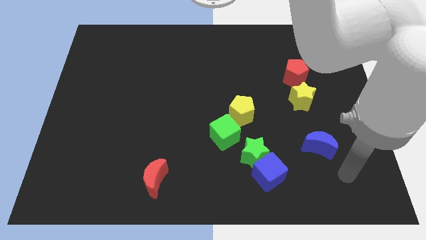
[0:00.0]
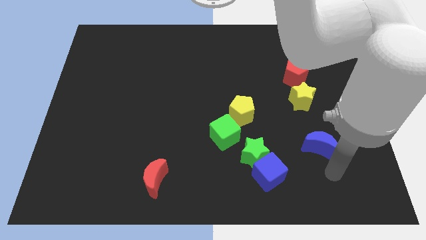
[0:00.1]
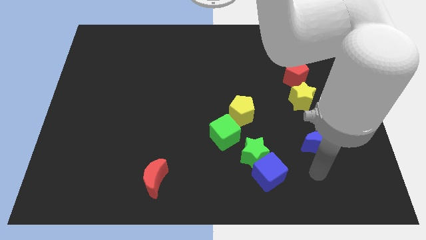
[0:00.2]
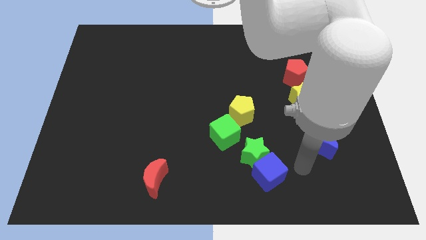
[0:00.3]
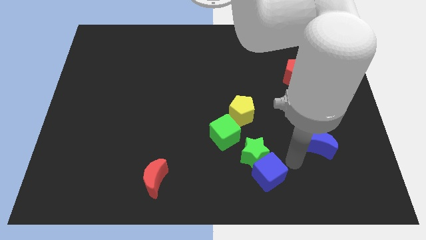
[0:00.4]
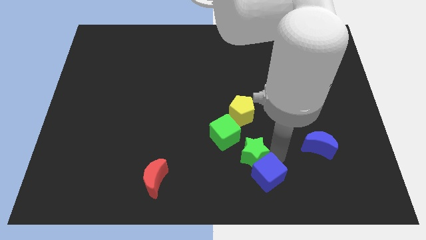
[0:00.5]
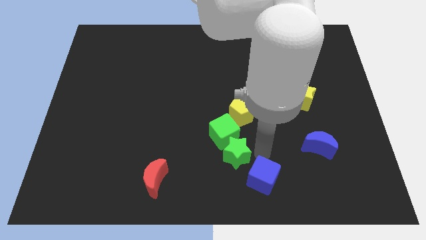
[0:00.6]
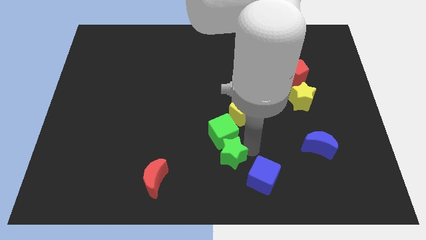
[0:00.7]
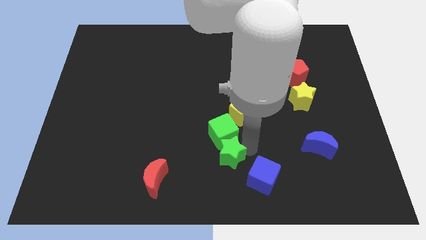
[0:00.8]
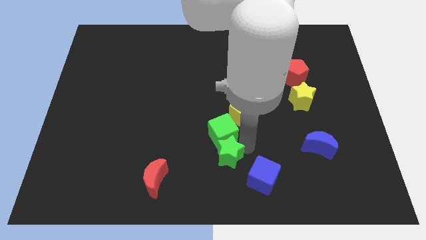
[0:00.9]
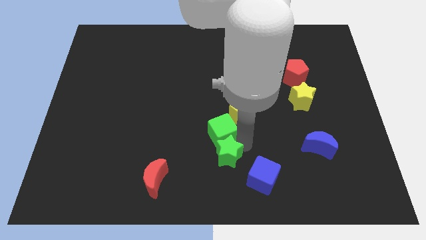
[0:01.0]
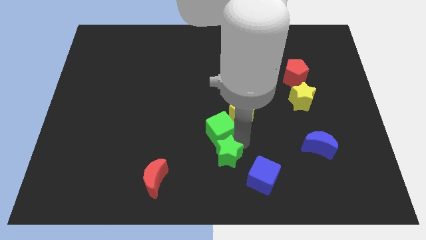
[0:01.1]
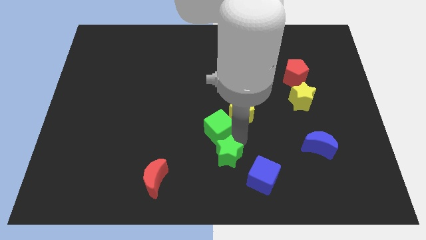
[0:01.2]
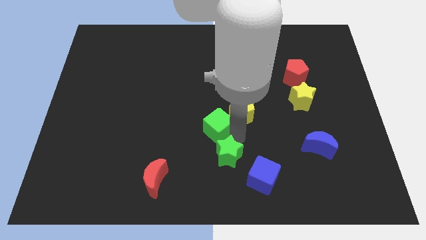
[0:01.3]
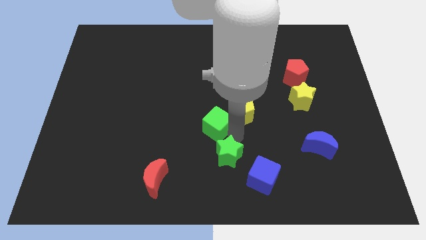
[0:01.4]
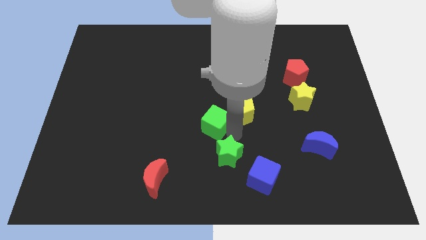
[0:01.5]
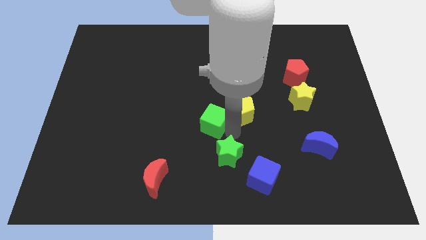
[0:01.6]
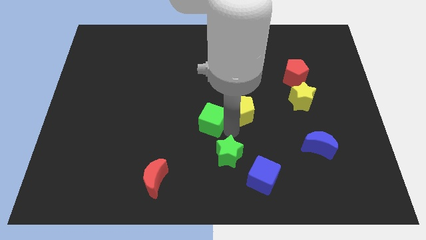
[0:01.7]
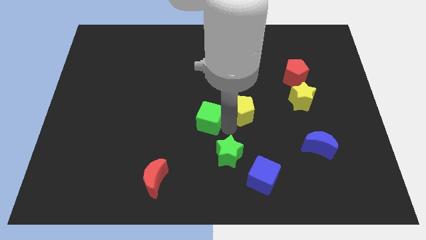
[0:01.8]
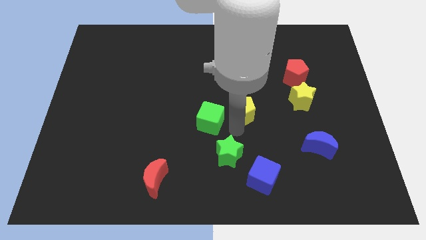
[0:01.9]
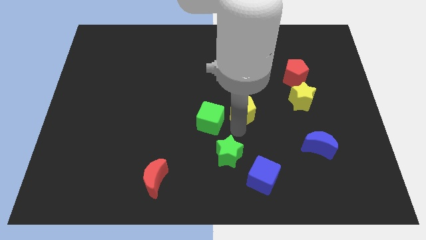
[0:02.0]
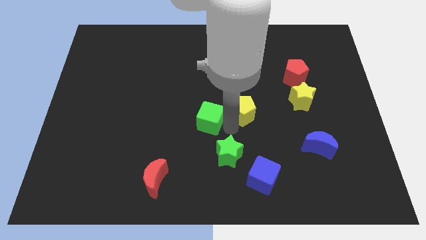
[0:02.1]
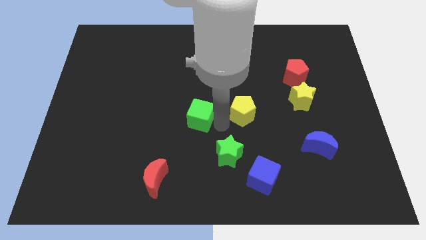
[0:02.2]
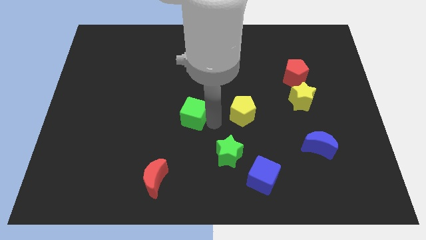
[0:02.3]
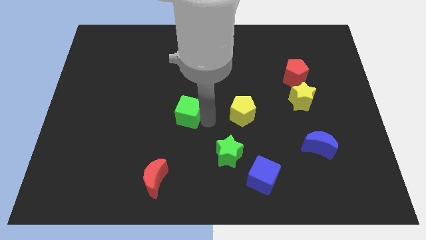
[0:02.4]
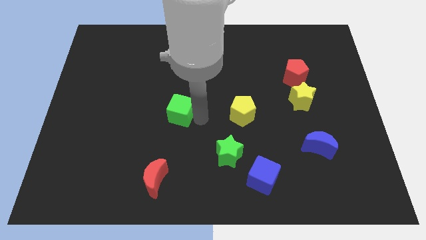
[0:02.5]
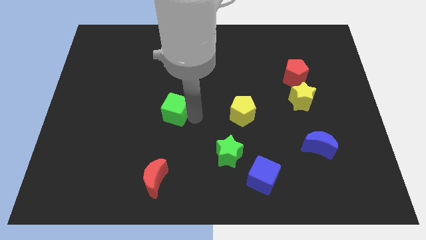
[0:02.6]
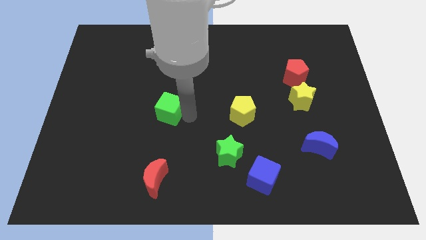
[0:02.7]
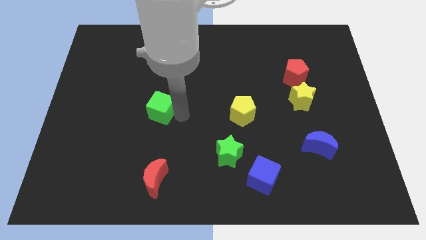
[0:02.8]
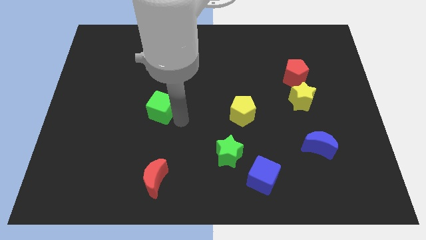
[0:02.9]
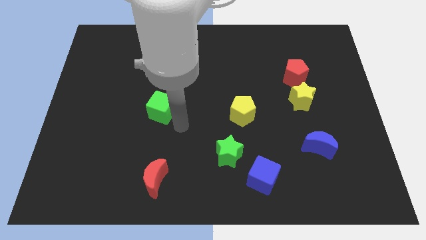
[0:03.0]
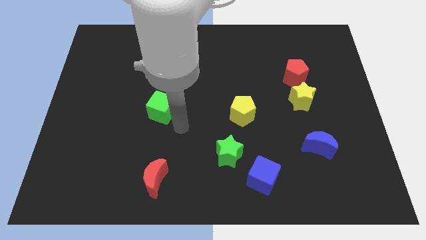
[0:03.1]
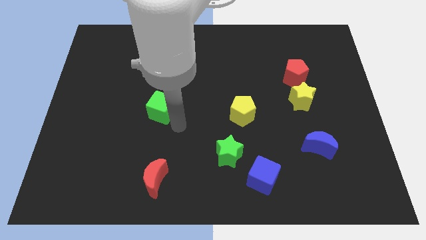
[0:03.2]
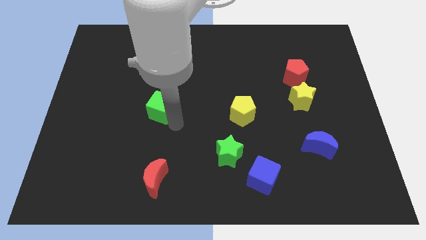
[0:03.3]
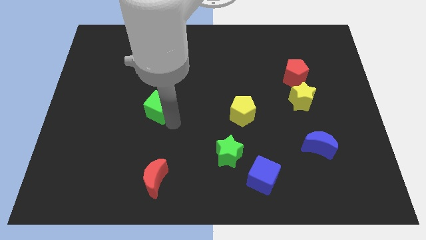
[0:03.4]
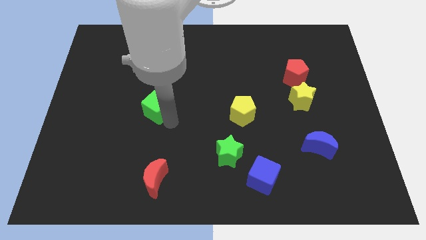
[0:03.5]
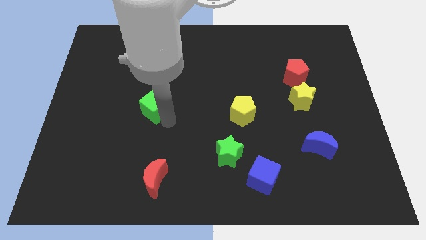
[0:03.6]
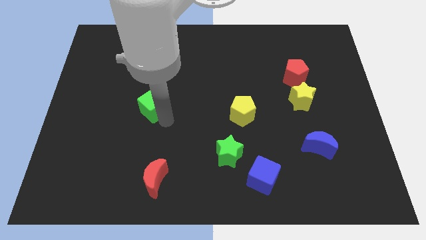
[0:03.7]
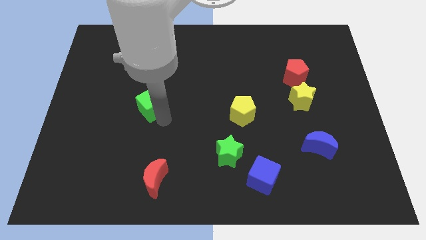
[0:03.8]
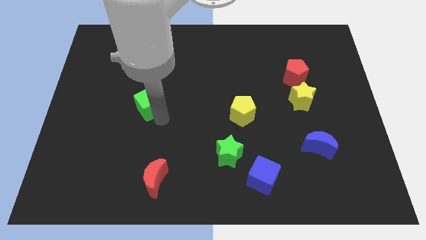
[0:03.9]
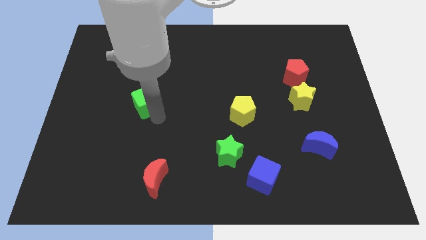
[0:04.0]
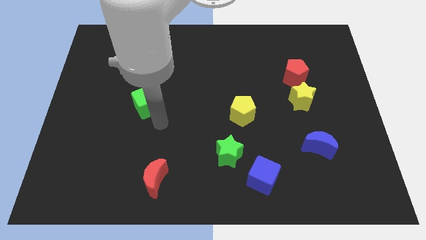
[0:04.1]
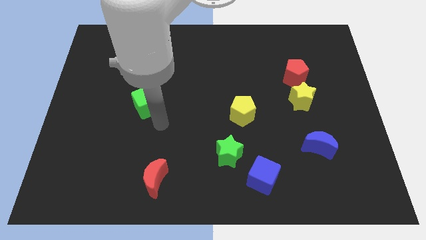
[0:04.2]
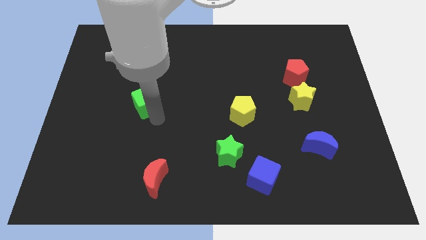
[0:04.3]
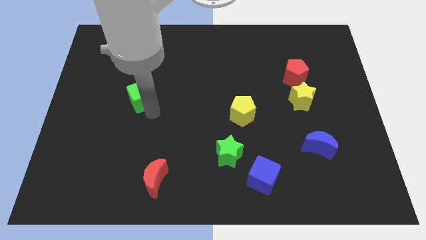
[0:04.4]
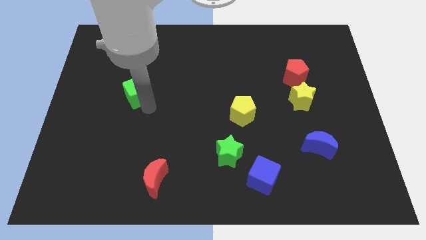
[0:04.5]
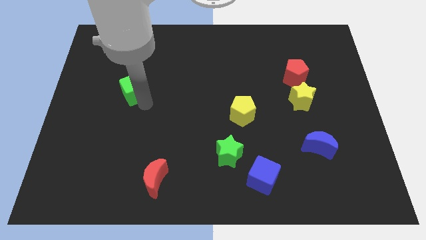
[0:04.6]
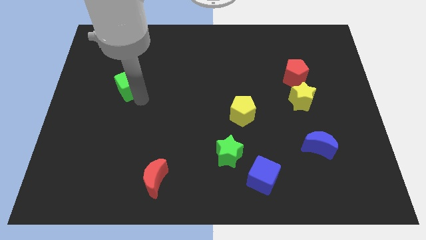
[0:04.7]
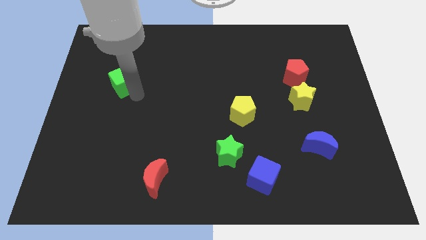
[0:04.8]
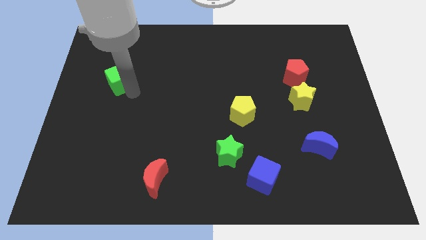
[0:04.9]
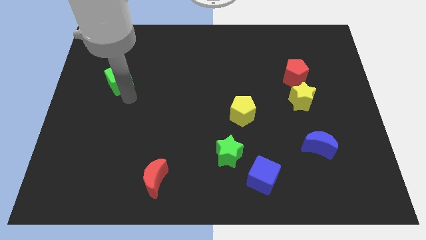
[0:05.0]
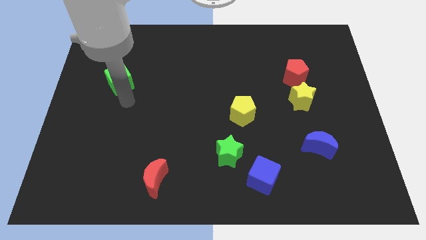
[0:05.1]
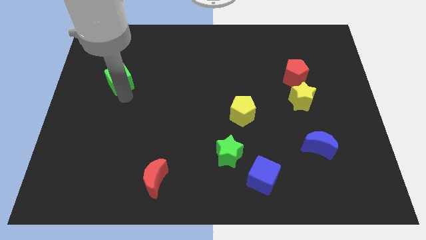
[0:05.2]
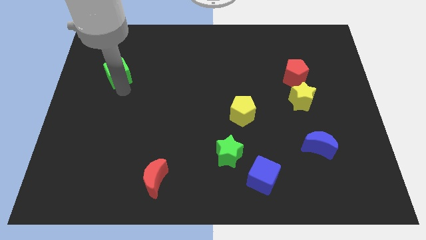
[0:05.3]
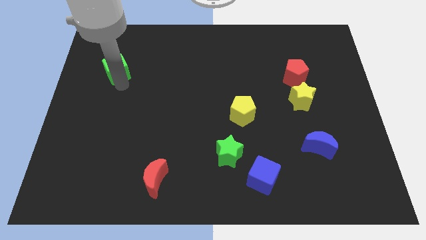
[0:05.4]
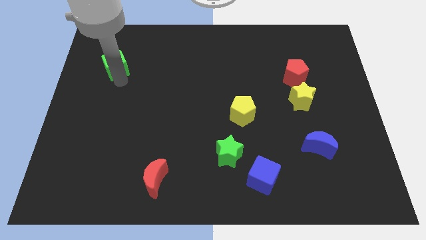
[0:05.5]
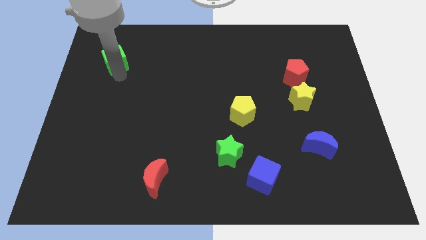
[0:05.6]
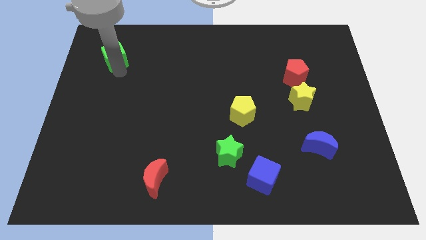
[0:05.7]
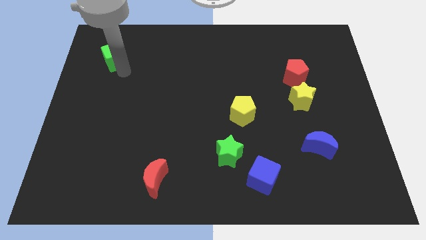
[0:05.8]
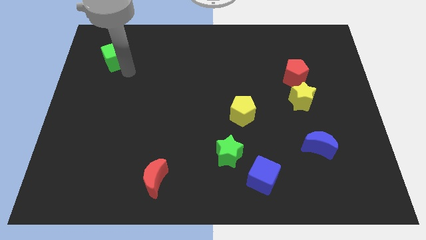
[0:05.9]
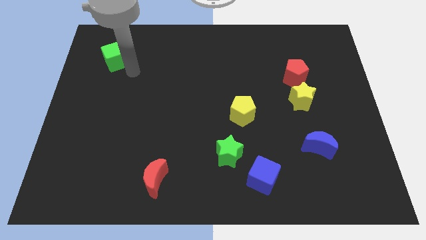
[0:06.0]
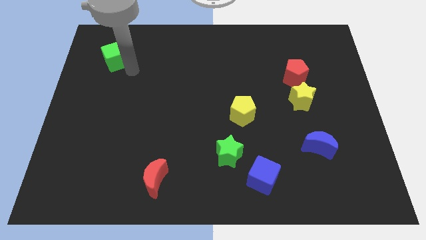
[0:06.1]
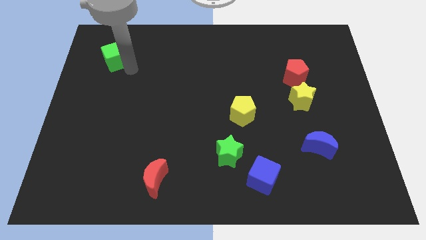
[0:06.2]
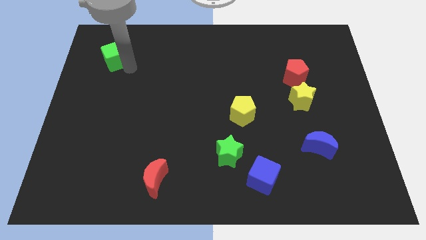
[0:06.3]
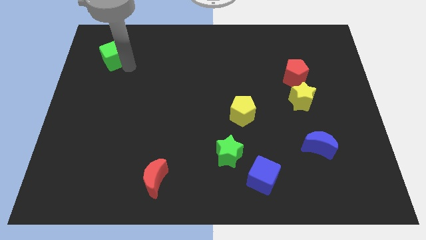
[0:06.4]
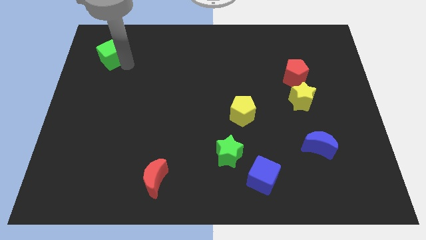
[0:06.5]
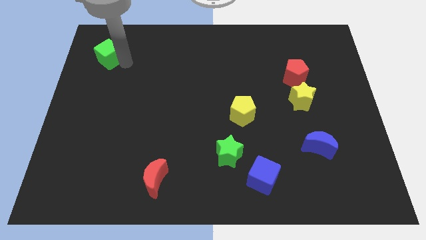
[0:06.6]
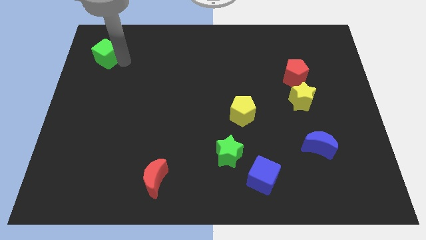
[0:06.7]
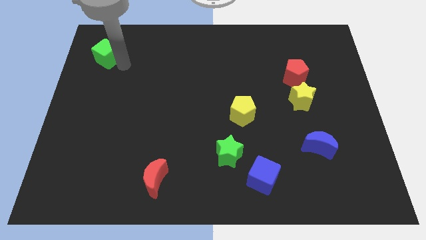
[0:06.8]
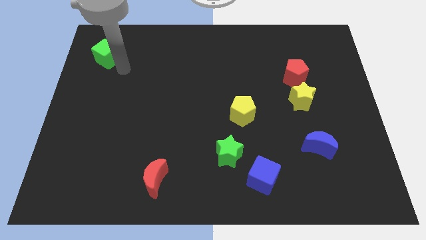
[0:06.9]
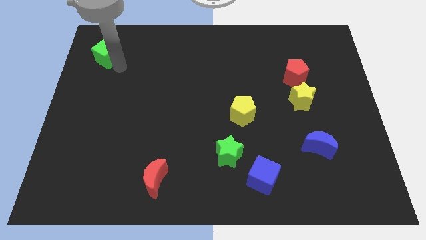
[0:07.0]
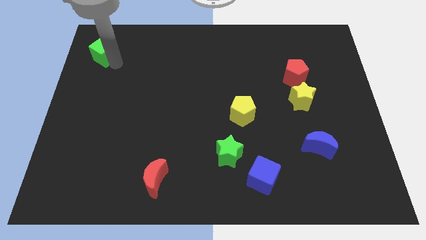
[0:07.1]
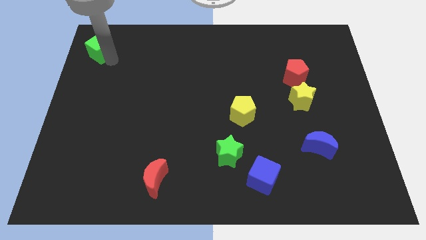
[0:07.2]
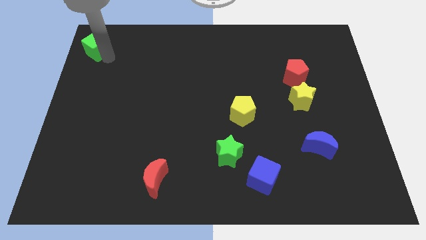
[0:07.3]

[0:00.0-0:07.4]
move the green cube to the top left corner
